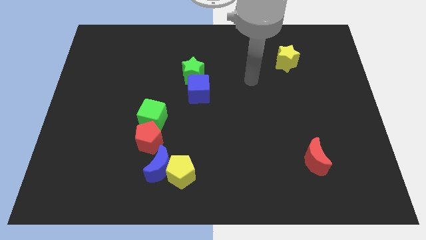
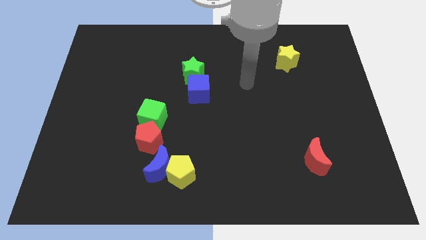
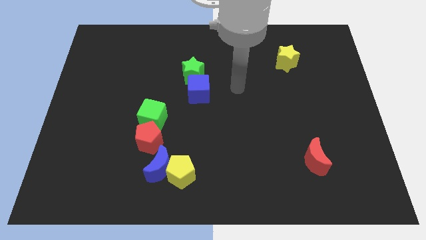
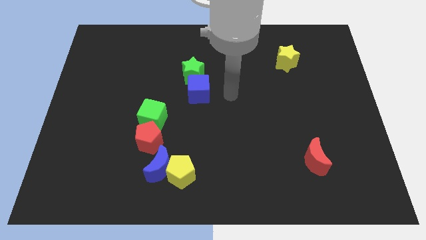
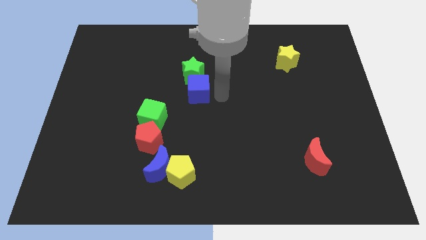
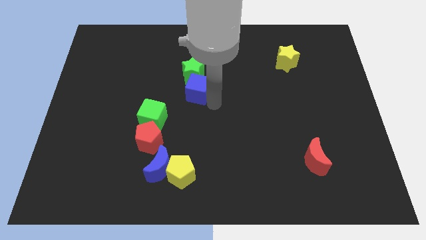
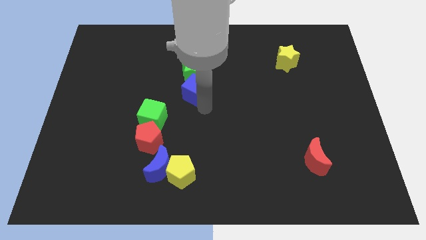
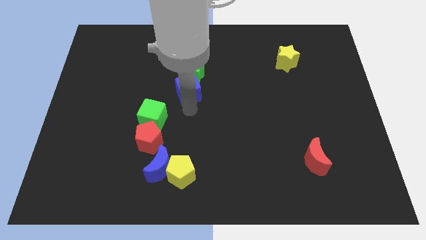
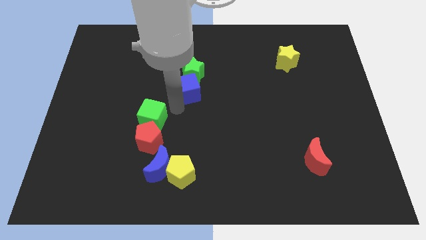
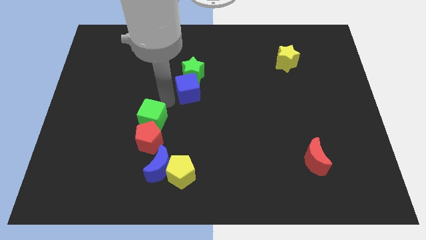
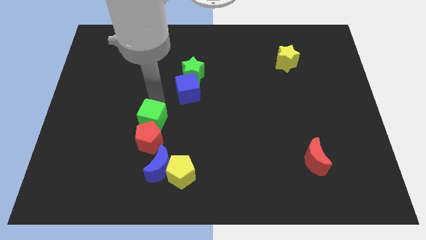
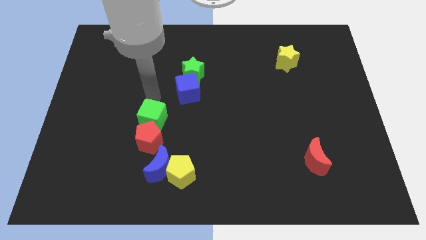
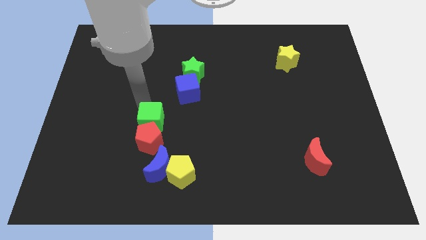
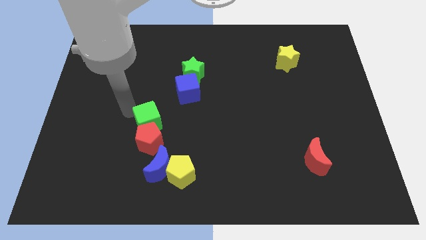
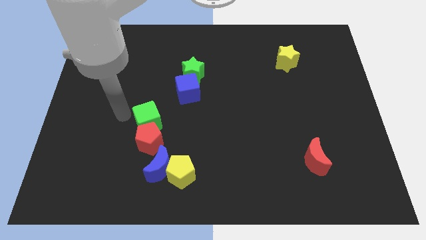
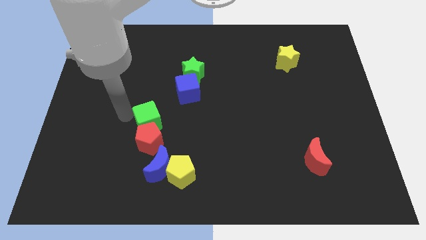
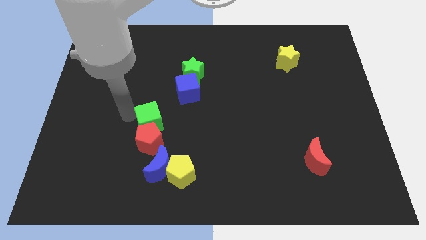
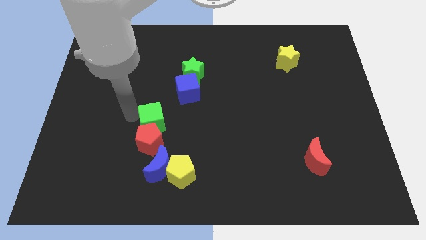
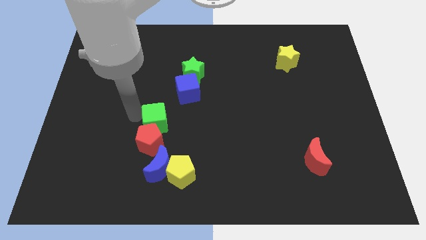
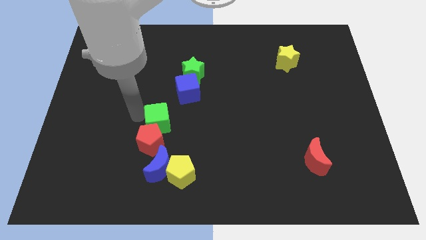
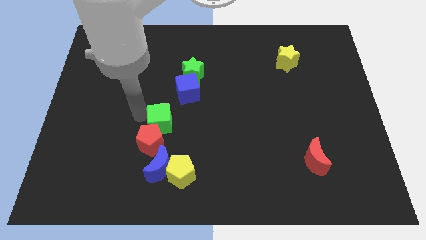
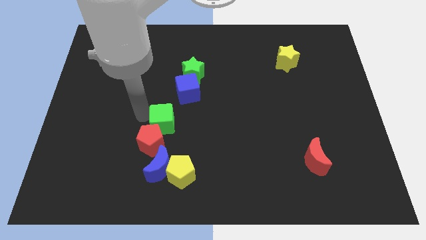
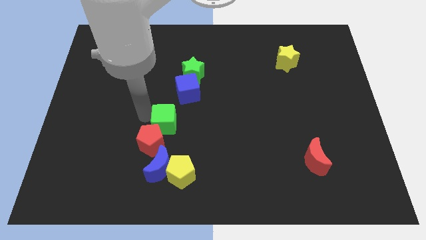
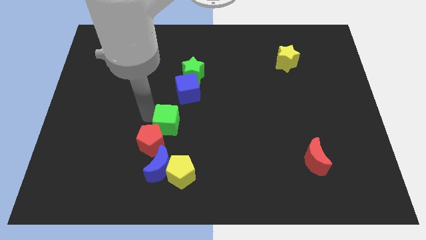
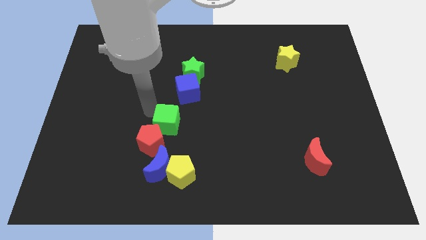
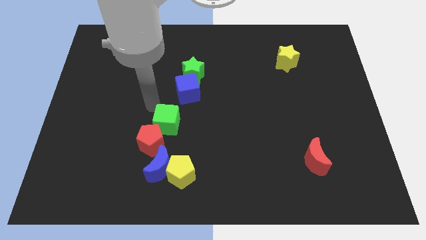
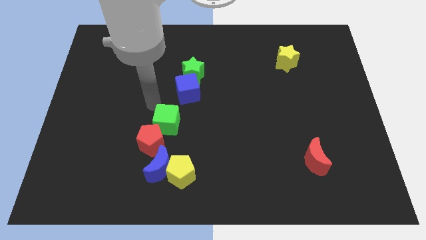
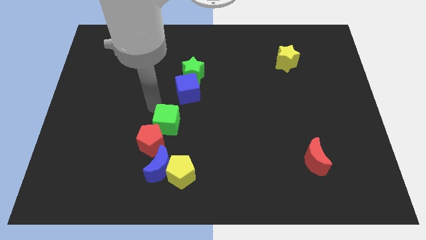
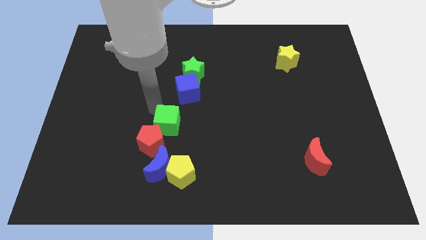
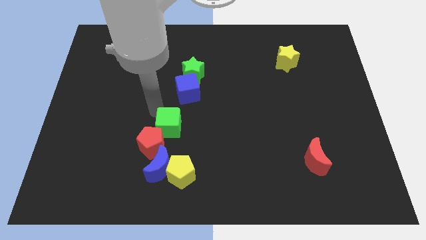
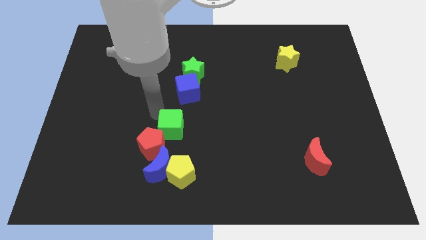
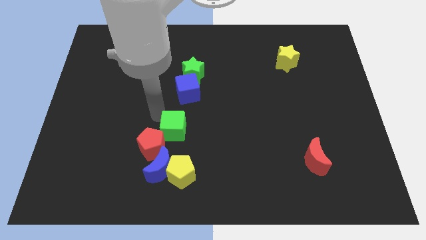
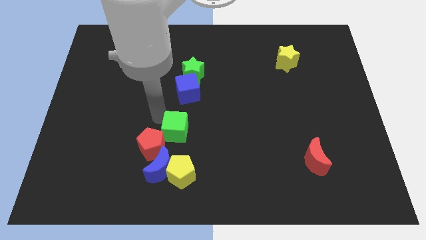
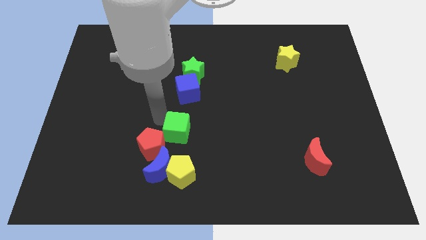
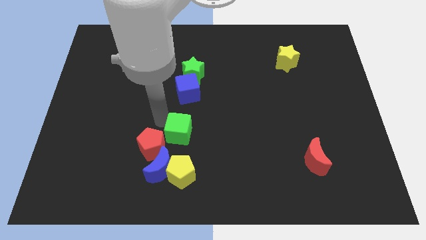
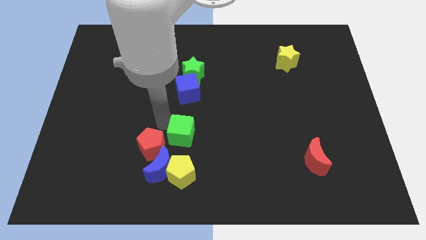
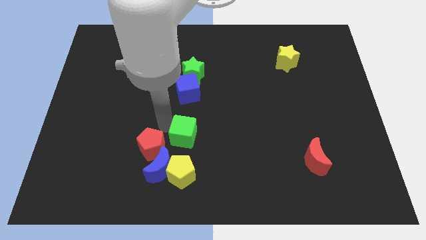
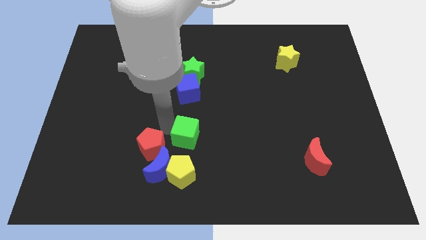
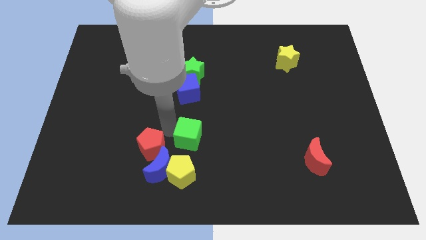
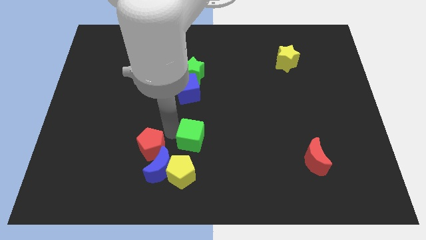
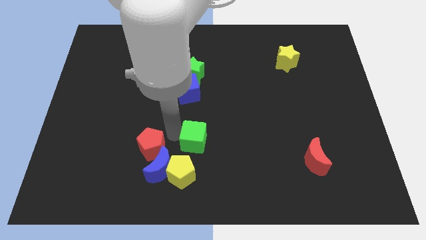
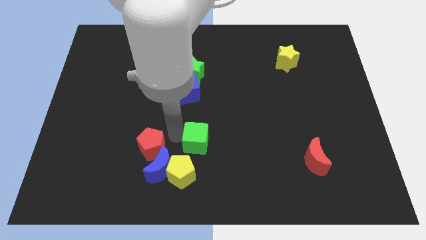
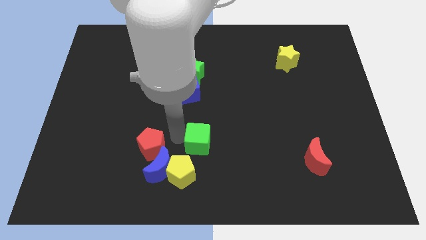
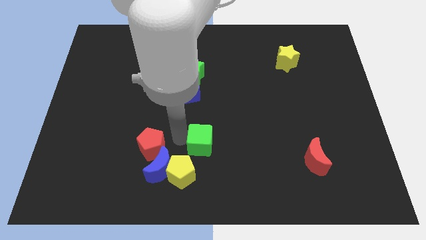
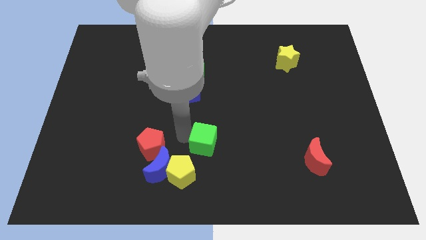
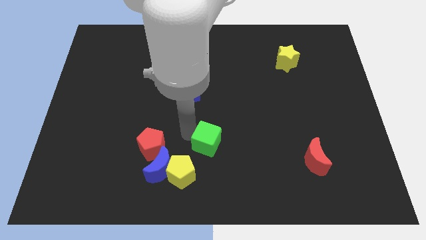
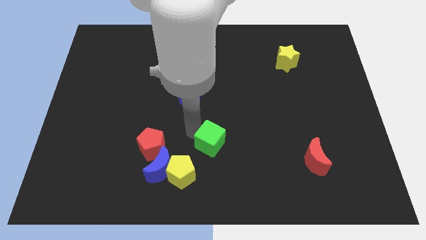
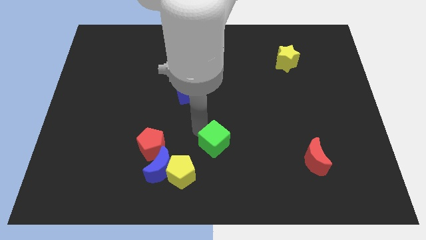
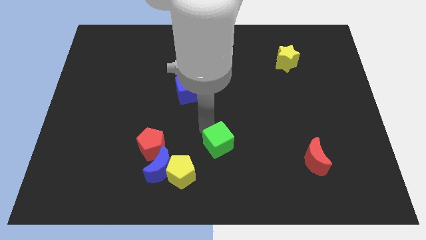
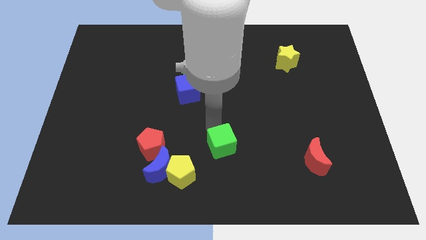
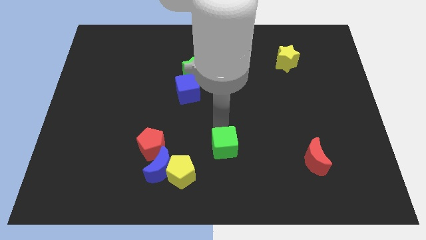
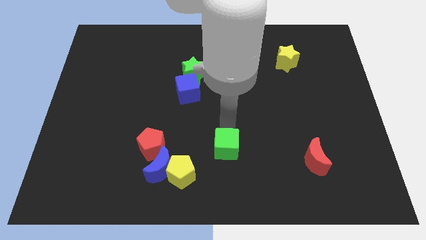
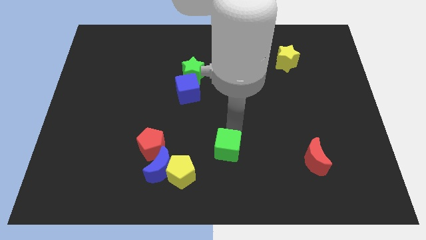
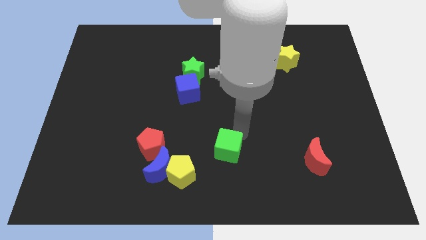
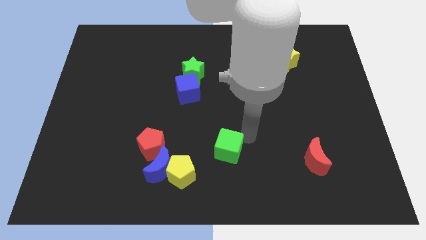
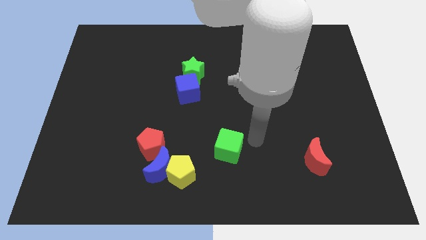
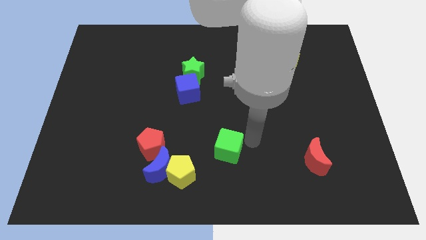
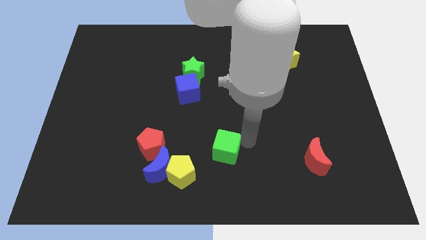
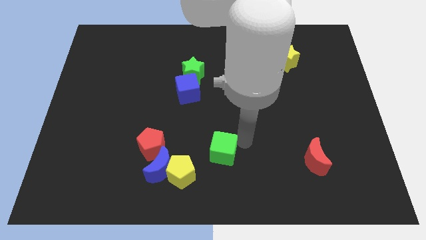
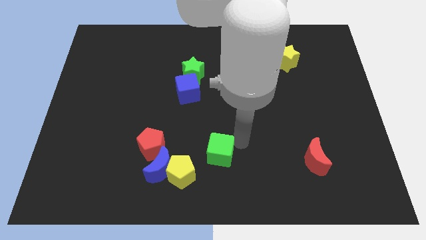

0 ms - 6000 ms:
move the green cube to the bottom
